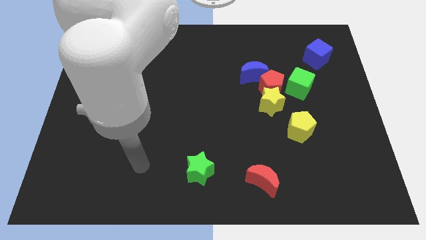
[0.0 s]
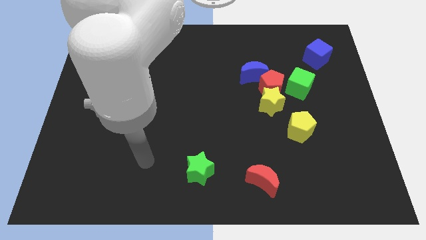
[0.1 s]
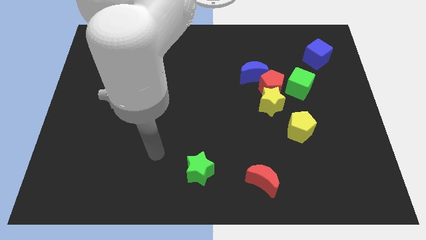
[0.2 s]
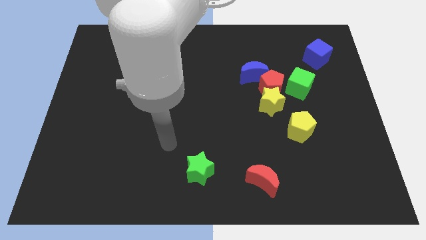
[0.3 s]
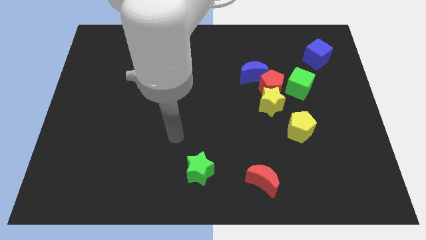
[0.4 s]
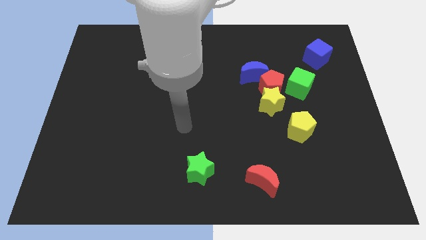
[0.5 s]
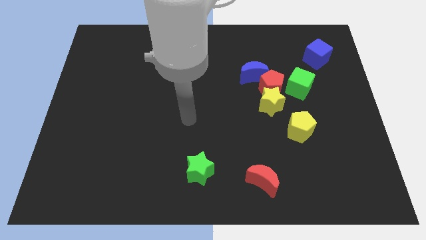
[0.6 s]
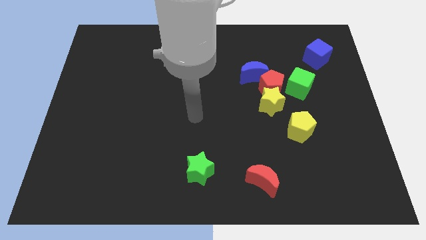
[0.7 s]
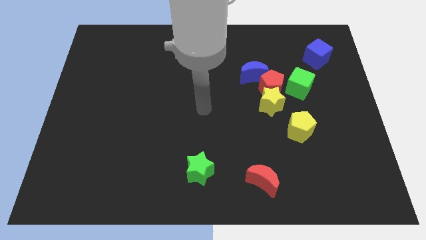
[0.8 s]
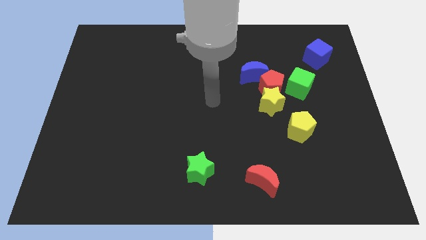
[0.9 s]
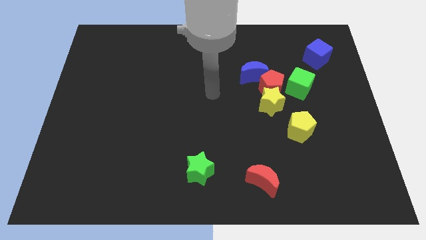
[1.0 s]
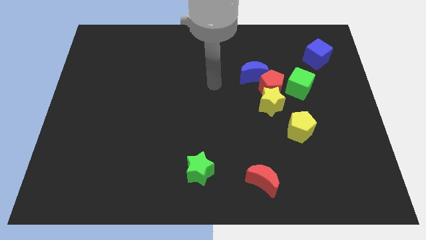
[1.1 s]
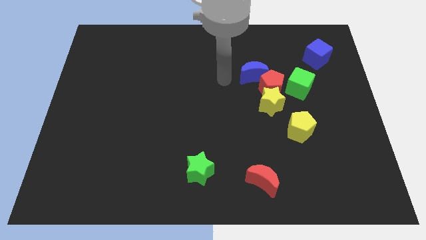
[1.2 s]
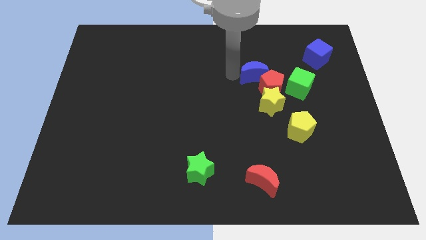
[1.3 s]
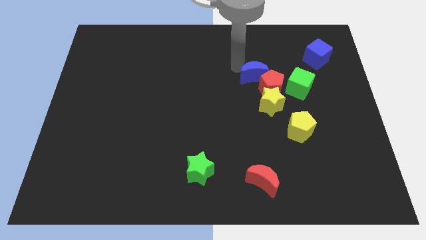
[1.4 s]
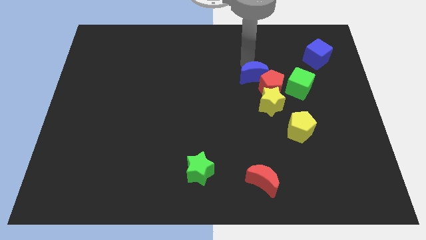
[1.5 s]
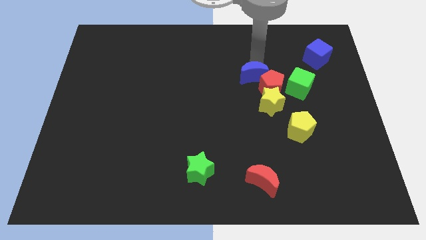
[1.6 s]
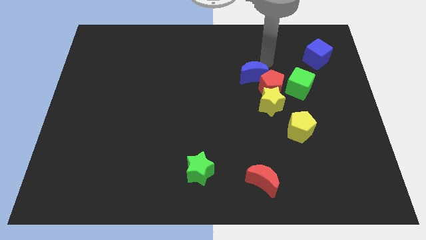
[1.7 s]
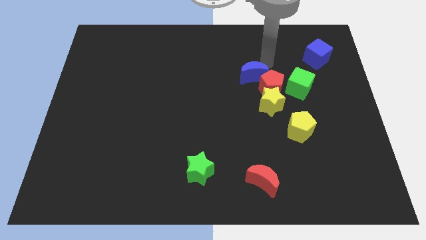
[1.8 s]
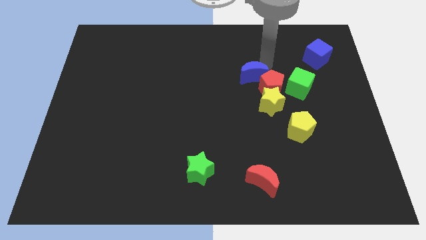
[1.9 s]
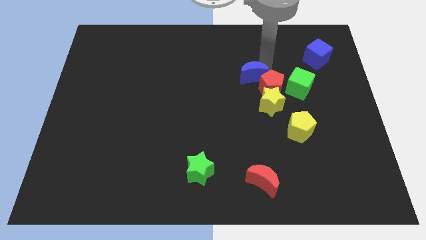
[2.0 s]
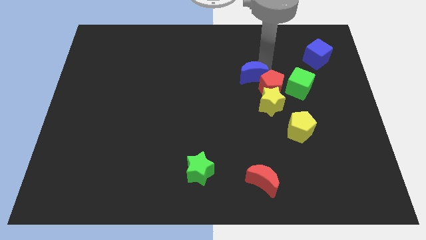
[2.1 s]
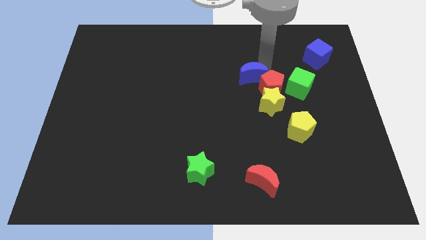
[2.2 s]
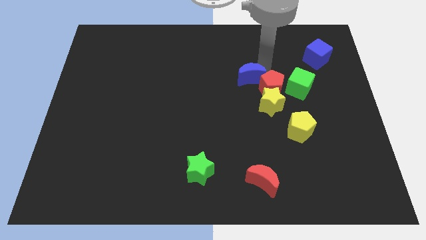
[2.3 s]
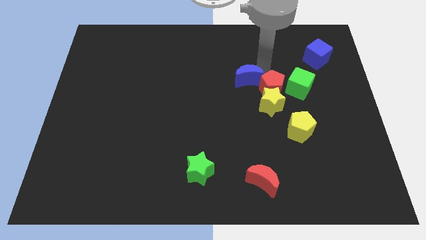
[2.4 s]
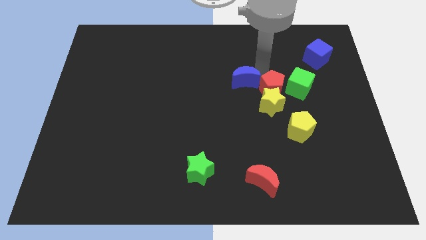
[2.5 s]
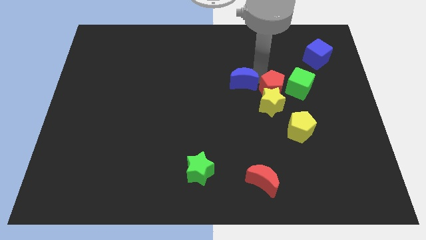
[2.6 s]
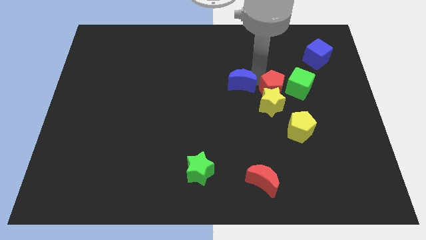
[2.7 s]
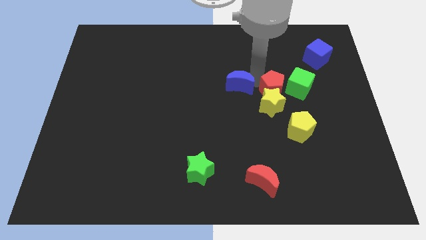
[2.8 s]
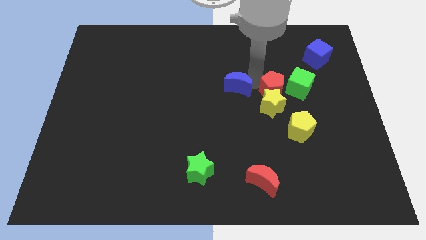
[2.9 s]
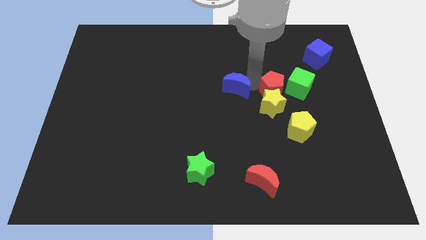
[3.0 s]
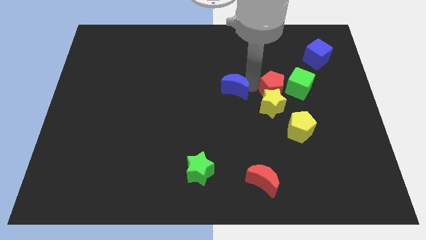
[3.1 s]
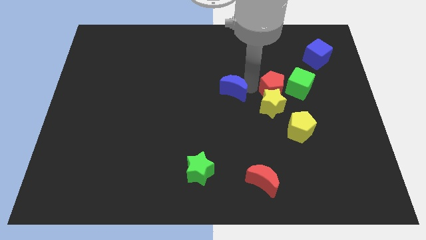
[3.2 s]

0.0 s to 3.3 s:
slightly move the blue moon down and then left

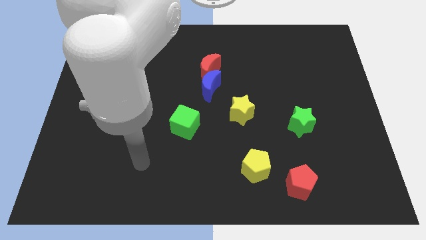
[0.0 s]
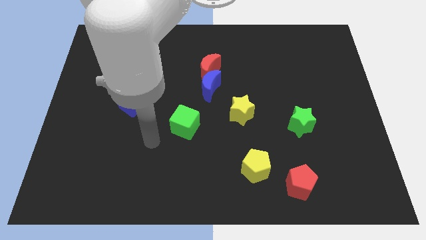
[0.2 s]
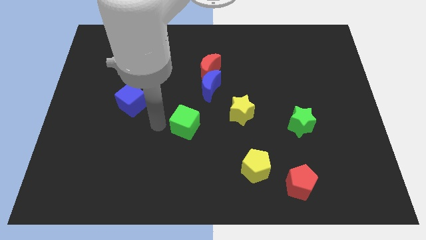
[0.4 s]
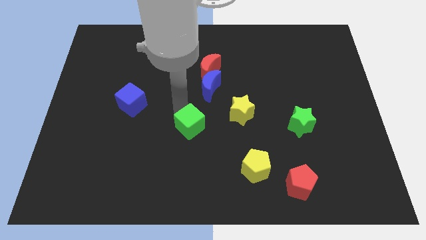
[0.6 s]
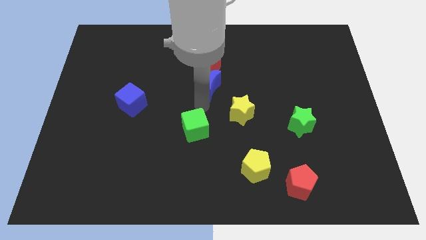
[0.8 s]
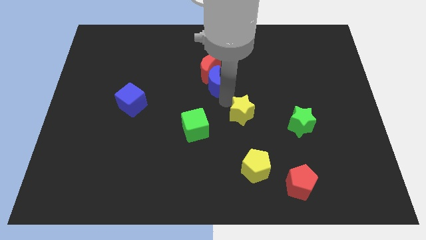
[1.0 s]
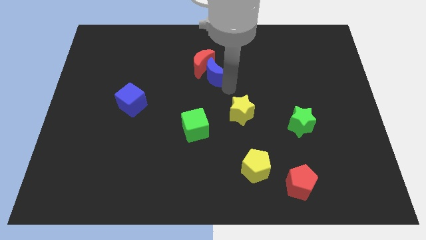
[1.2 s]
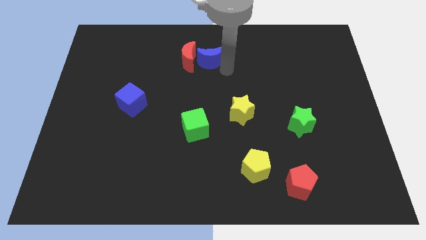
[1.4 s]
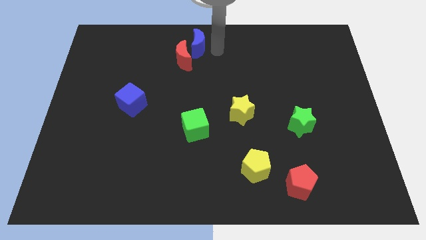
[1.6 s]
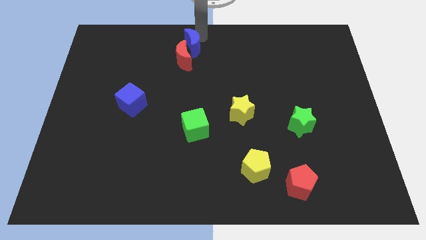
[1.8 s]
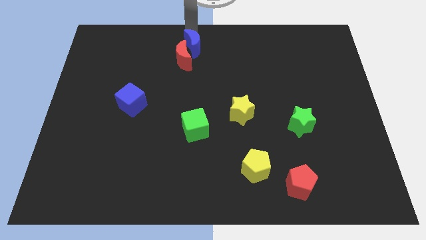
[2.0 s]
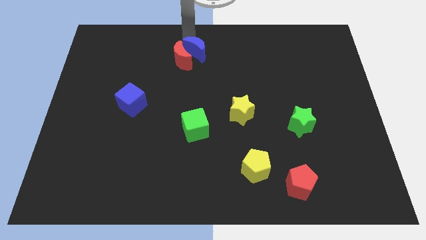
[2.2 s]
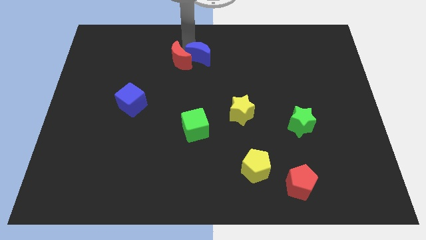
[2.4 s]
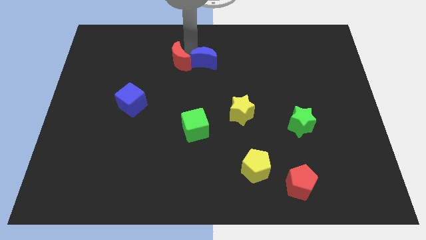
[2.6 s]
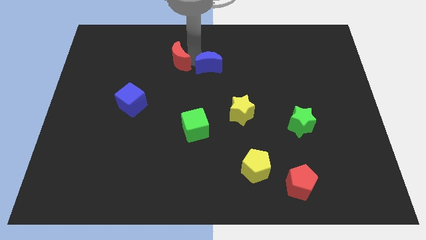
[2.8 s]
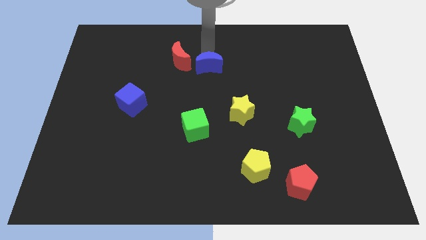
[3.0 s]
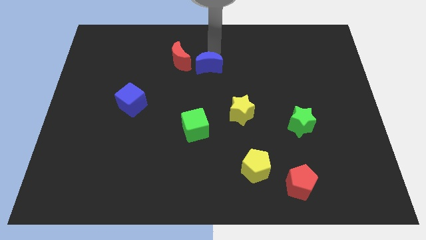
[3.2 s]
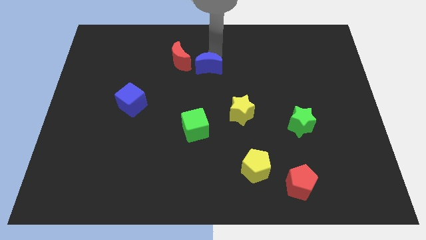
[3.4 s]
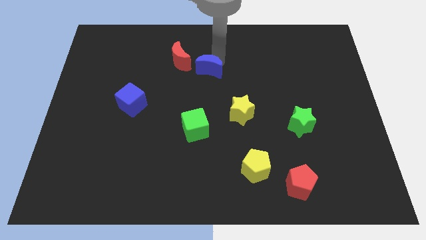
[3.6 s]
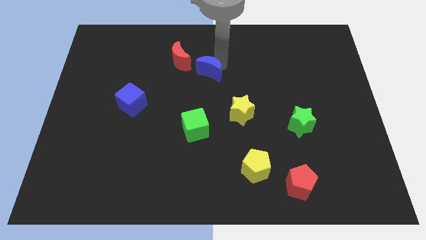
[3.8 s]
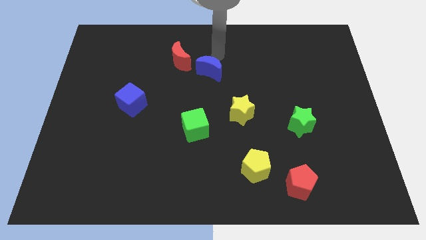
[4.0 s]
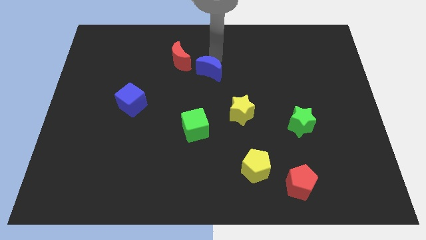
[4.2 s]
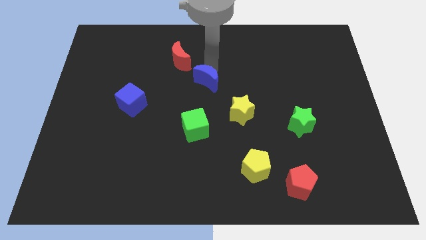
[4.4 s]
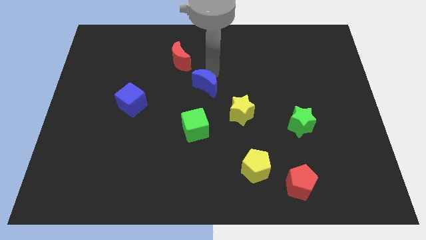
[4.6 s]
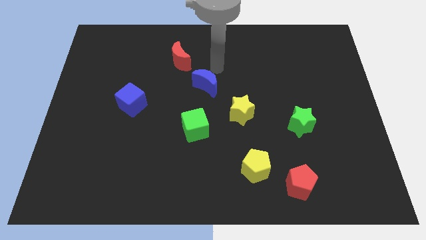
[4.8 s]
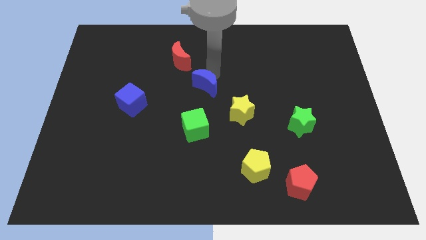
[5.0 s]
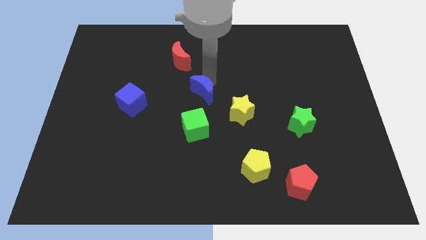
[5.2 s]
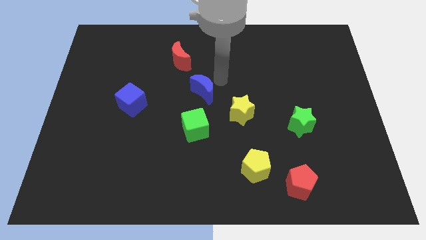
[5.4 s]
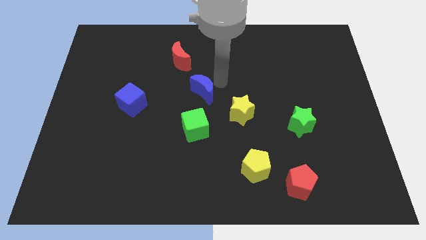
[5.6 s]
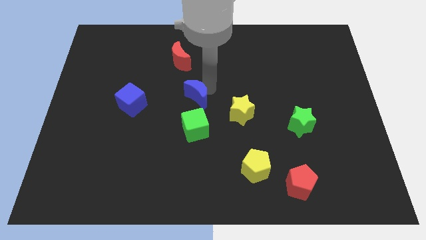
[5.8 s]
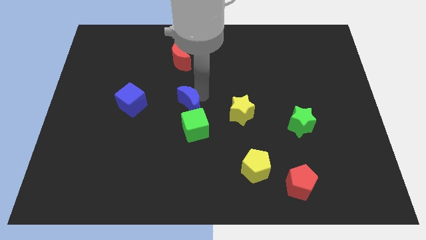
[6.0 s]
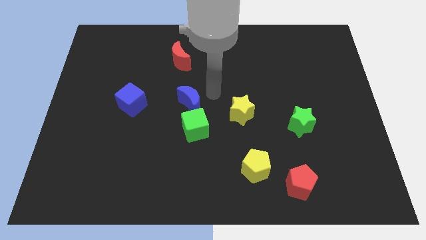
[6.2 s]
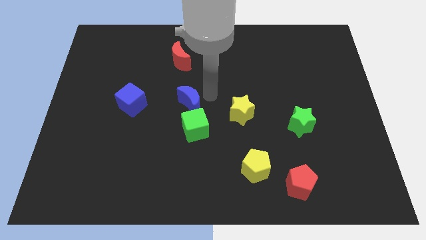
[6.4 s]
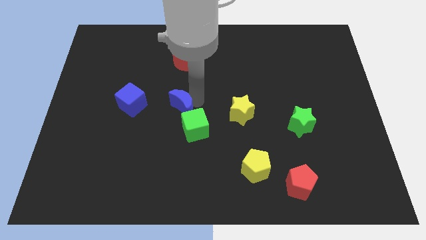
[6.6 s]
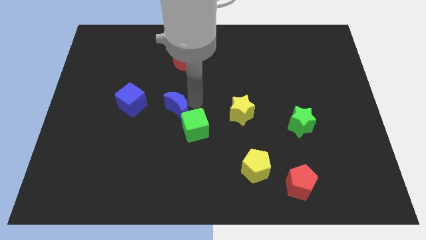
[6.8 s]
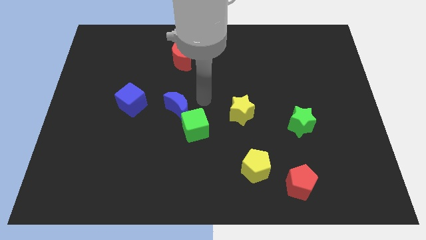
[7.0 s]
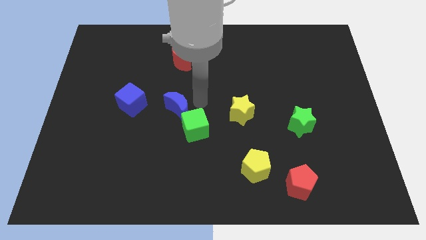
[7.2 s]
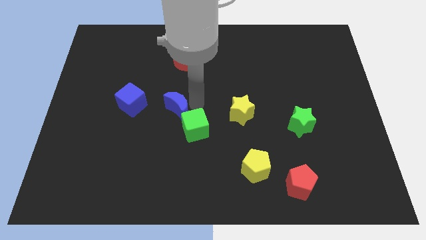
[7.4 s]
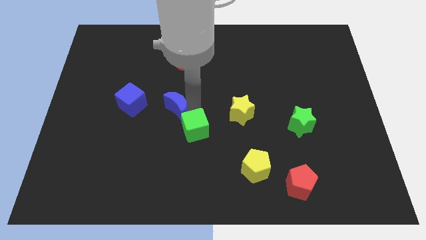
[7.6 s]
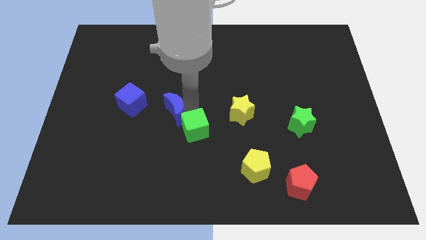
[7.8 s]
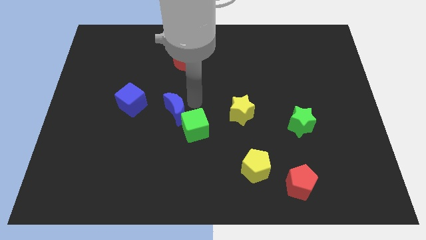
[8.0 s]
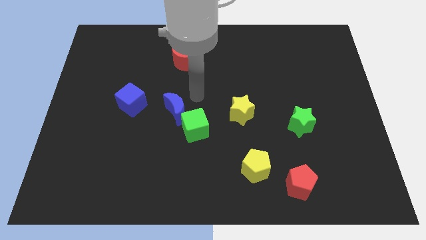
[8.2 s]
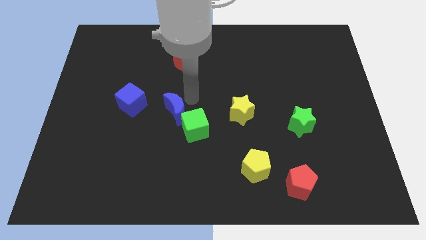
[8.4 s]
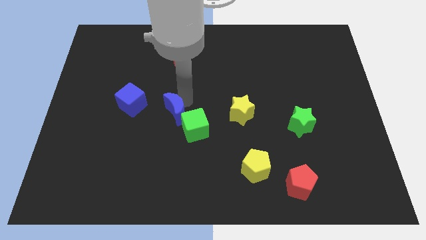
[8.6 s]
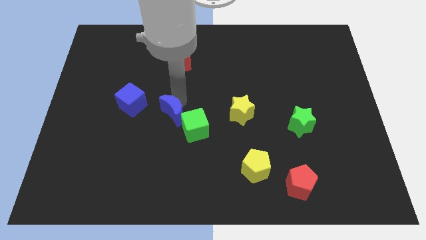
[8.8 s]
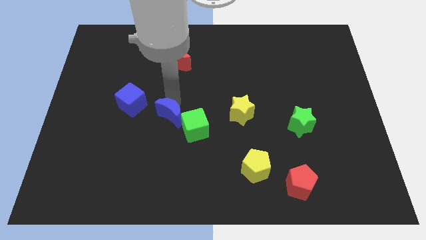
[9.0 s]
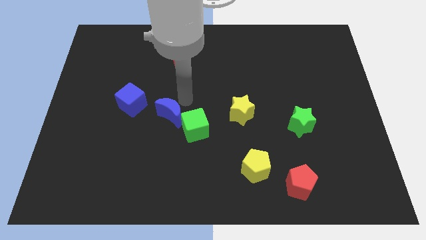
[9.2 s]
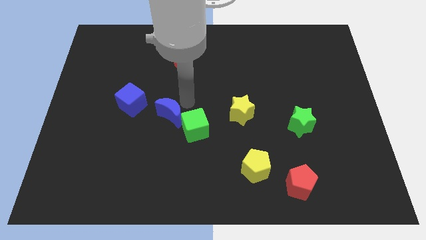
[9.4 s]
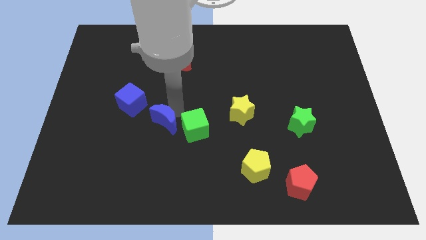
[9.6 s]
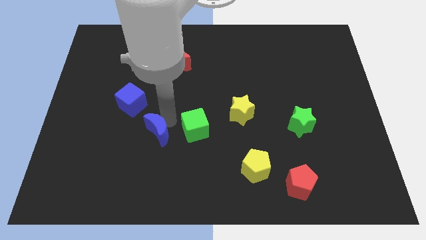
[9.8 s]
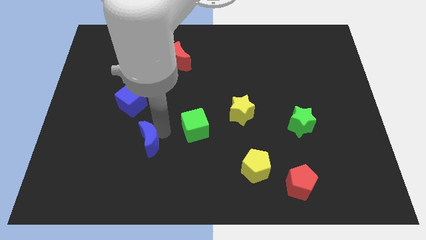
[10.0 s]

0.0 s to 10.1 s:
slide the blue moon diagonally downwards and left

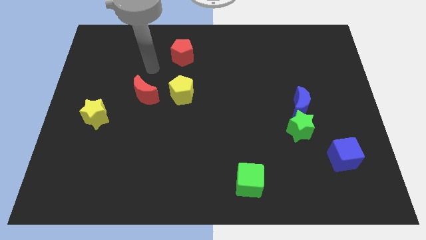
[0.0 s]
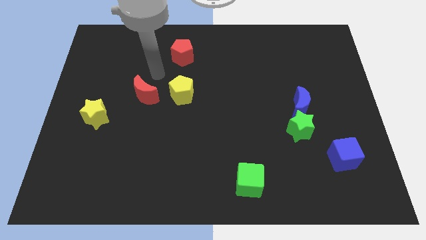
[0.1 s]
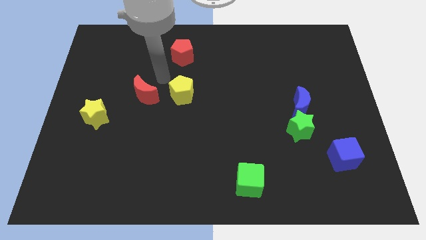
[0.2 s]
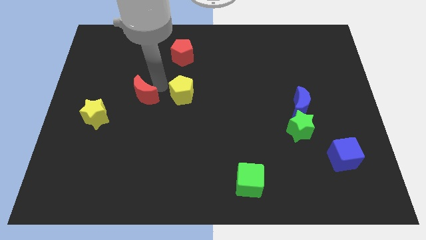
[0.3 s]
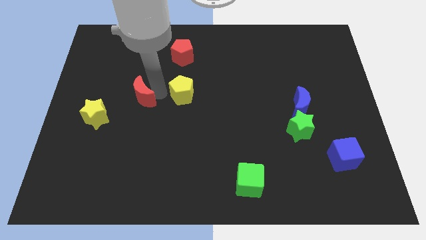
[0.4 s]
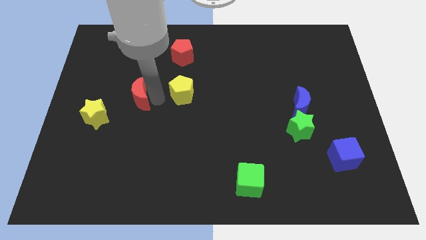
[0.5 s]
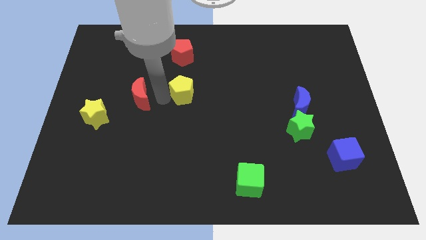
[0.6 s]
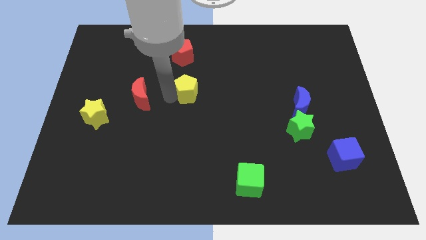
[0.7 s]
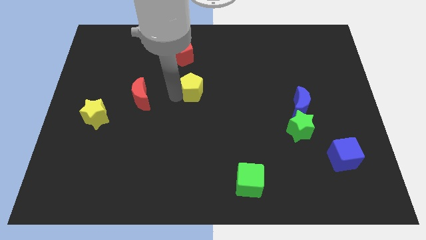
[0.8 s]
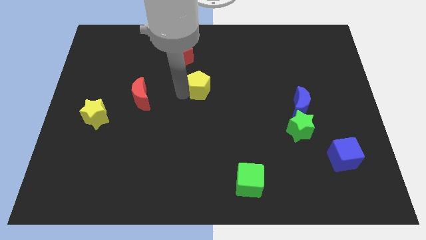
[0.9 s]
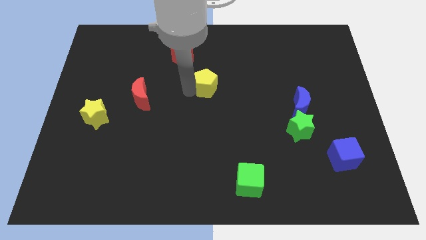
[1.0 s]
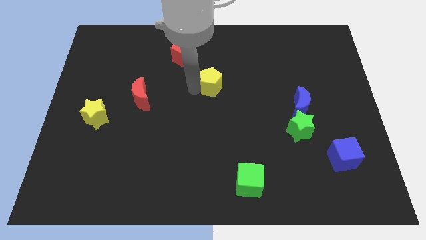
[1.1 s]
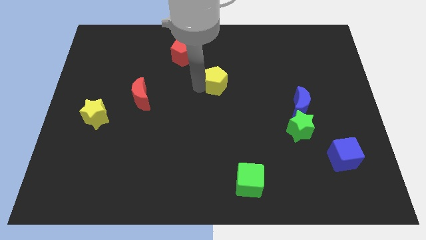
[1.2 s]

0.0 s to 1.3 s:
push the yellow pentagon to the right a little bit
